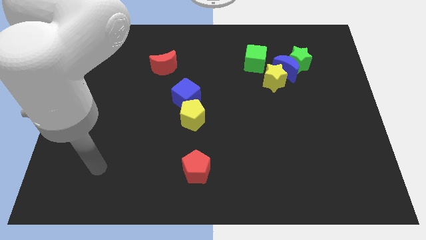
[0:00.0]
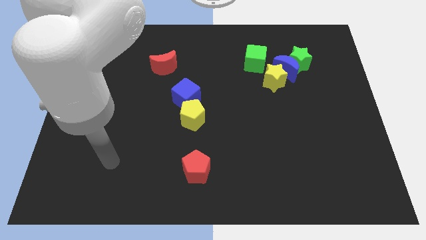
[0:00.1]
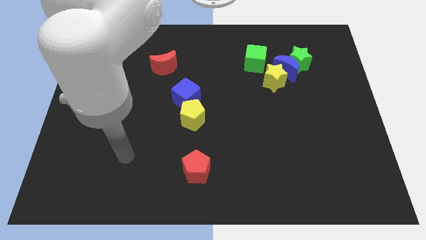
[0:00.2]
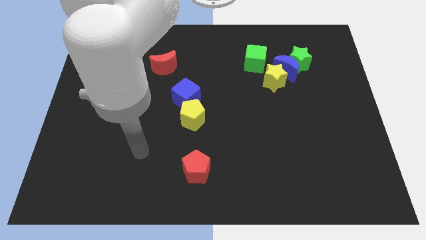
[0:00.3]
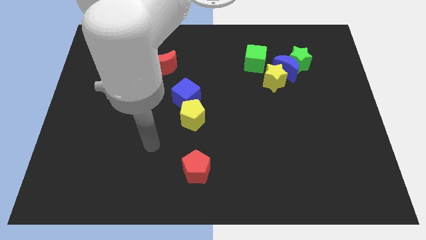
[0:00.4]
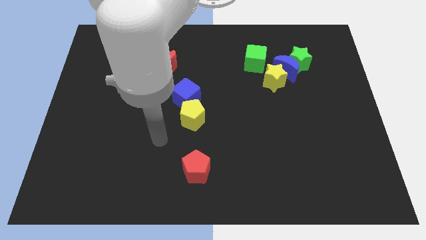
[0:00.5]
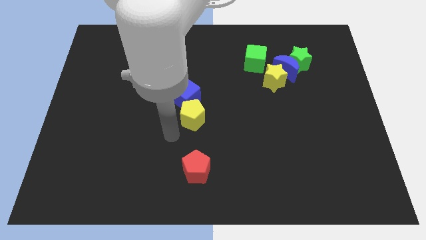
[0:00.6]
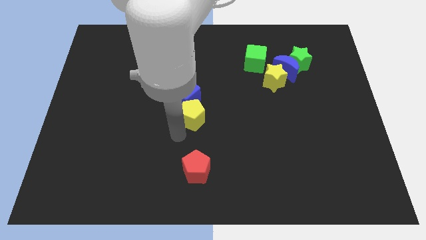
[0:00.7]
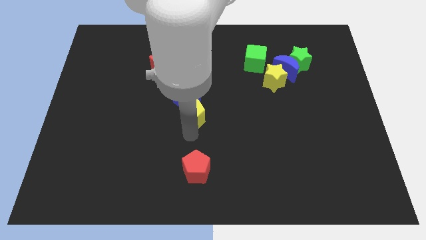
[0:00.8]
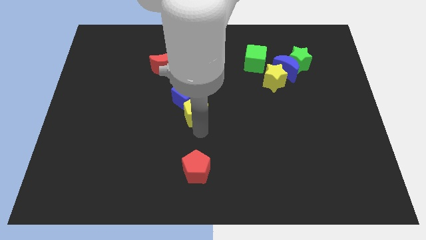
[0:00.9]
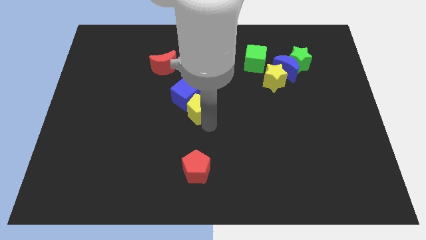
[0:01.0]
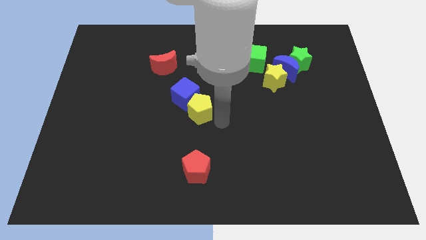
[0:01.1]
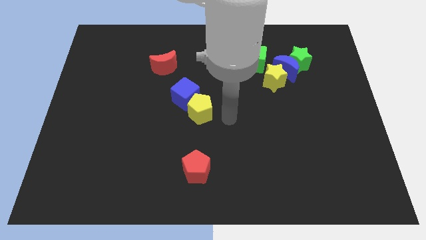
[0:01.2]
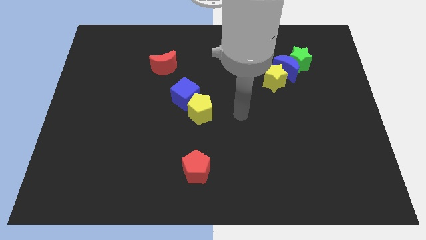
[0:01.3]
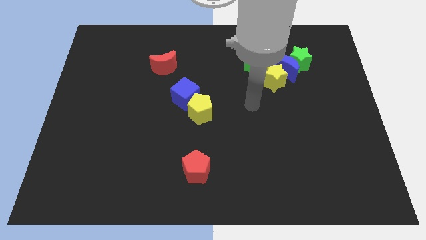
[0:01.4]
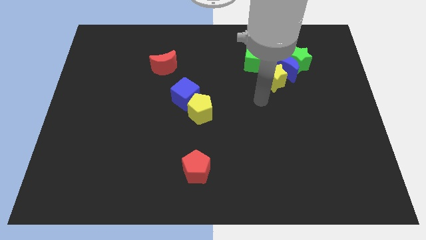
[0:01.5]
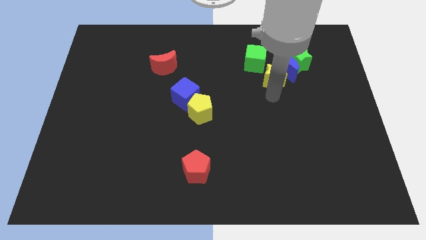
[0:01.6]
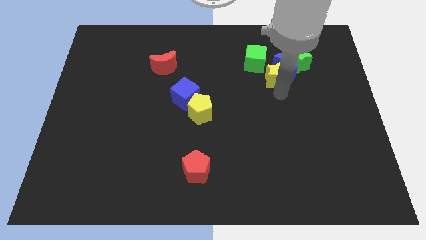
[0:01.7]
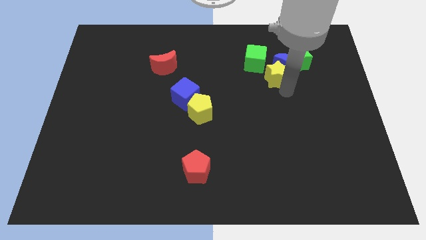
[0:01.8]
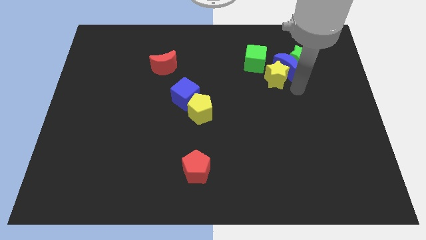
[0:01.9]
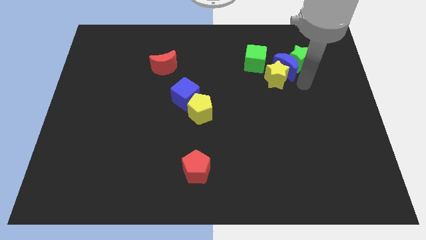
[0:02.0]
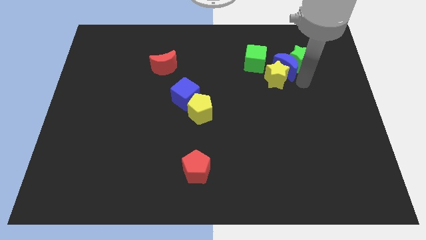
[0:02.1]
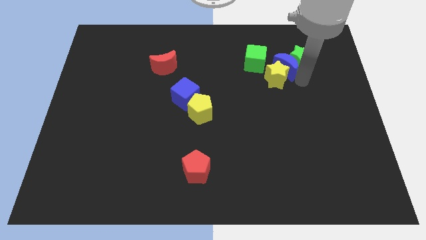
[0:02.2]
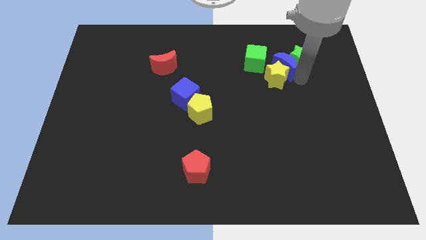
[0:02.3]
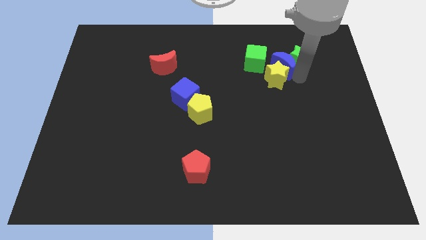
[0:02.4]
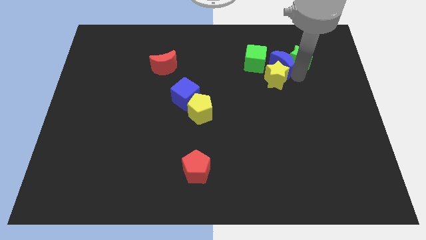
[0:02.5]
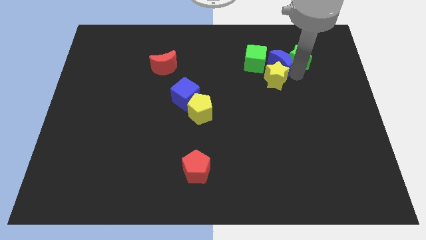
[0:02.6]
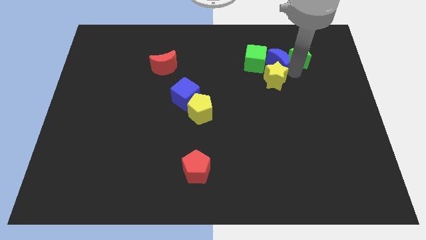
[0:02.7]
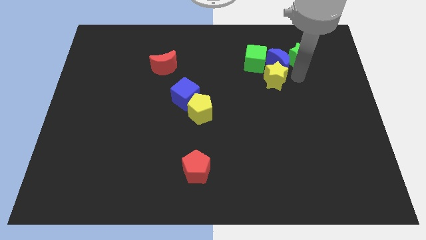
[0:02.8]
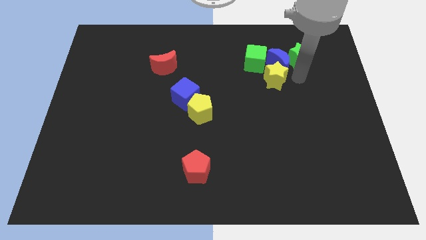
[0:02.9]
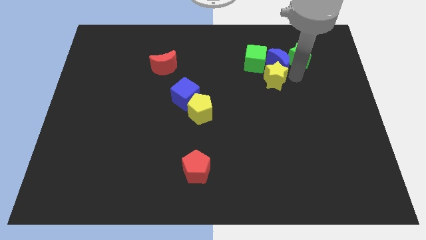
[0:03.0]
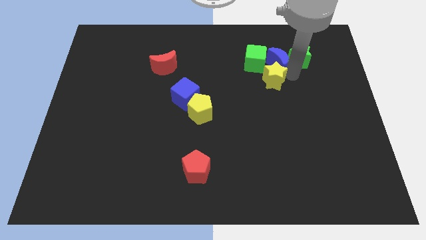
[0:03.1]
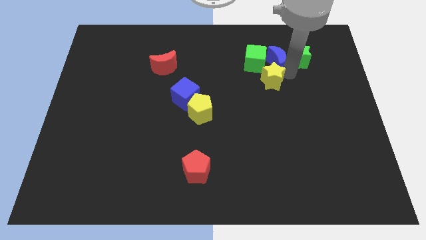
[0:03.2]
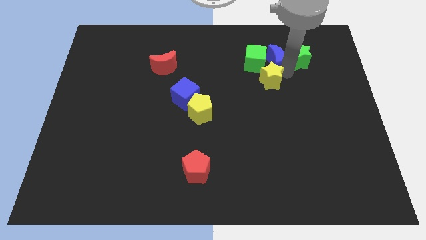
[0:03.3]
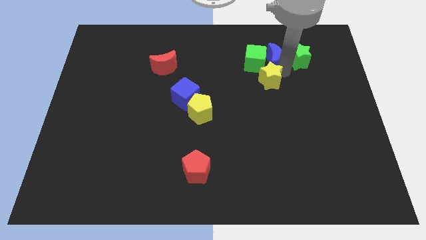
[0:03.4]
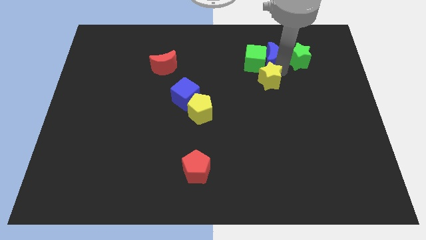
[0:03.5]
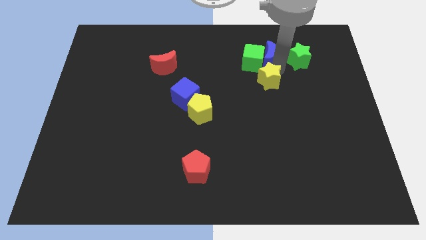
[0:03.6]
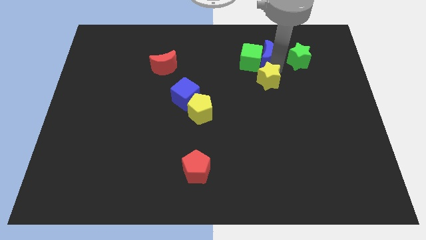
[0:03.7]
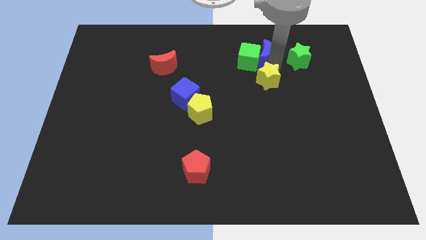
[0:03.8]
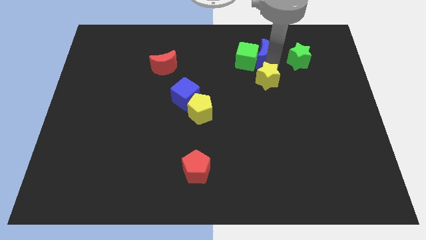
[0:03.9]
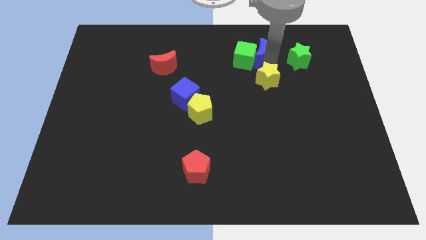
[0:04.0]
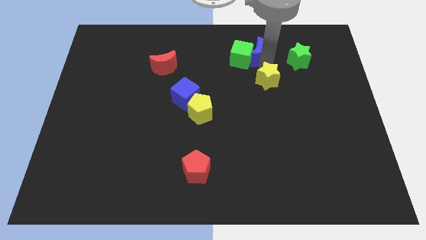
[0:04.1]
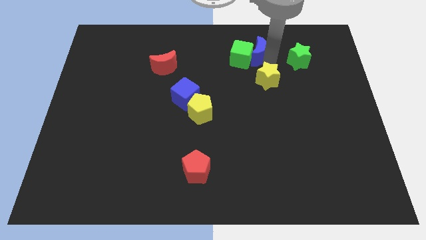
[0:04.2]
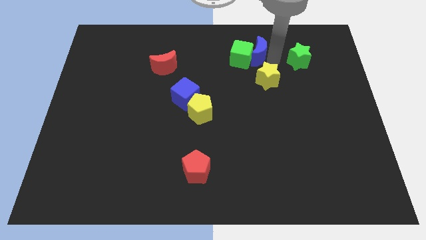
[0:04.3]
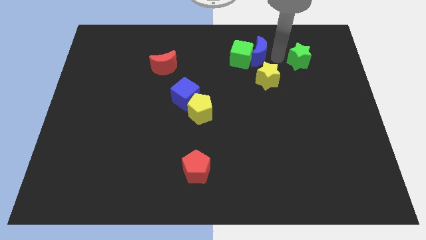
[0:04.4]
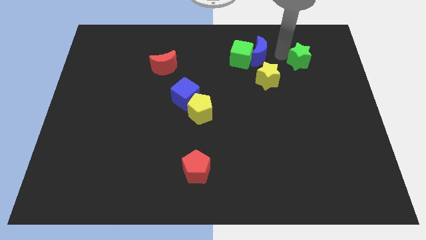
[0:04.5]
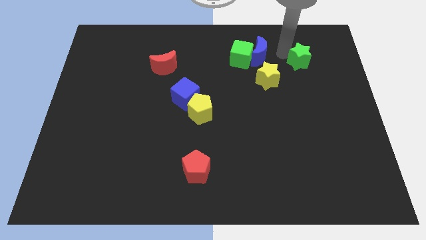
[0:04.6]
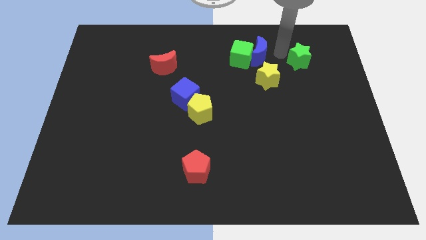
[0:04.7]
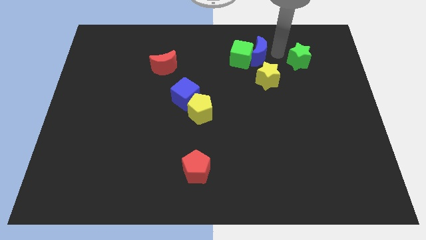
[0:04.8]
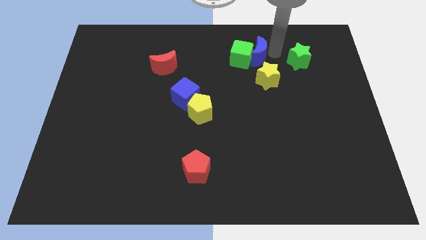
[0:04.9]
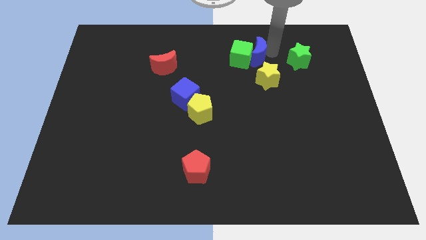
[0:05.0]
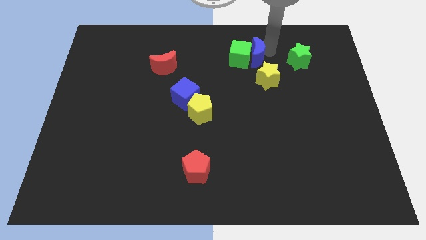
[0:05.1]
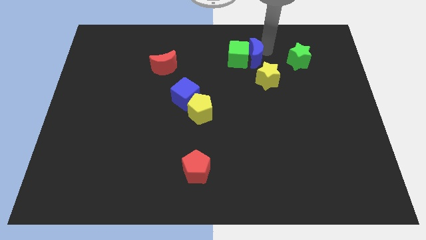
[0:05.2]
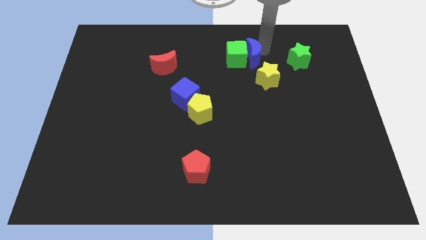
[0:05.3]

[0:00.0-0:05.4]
slightly move the blue moon to the left

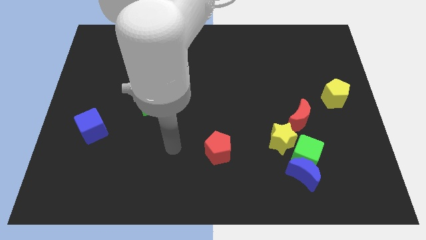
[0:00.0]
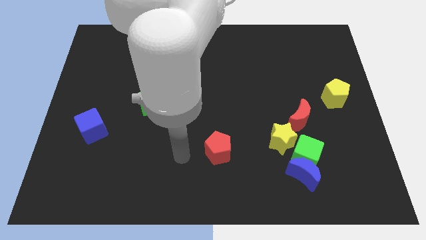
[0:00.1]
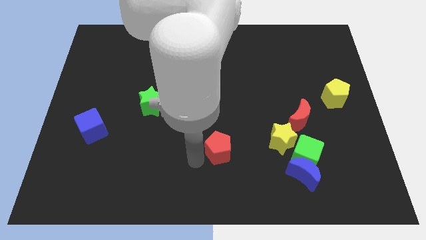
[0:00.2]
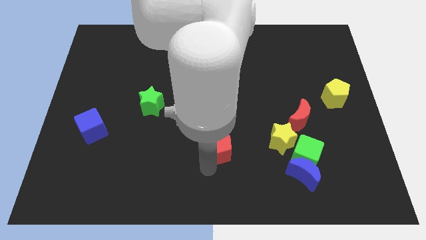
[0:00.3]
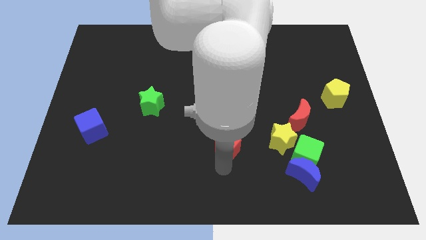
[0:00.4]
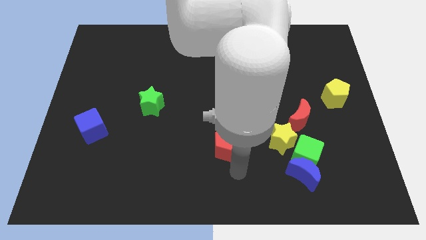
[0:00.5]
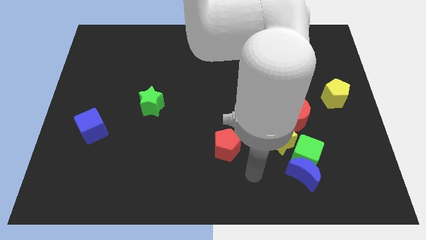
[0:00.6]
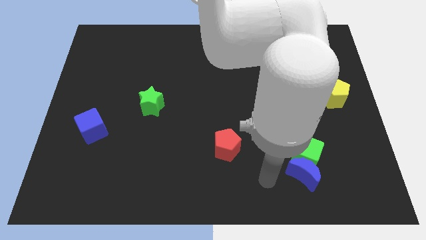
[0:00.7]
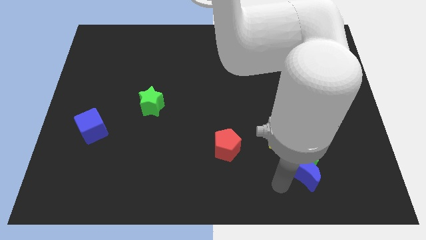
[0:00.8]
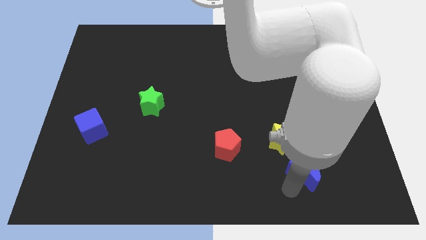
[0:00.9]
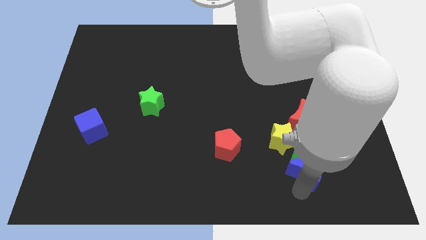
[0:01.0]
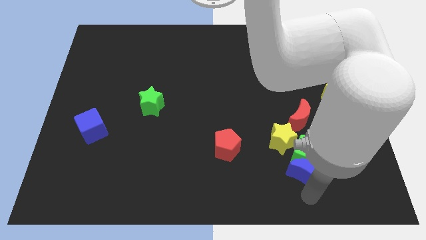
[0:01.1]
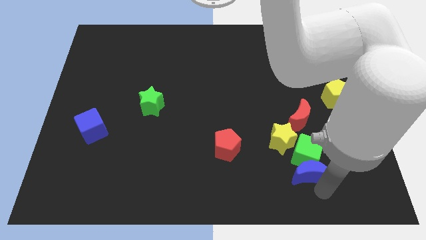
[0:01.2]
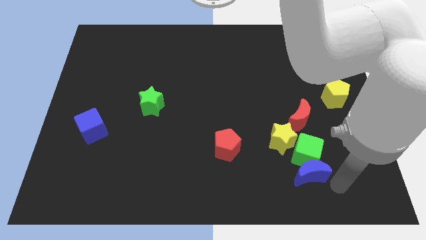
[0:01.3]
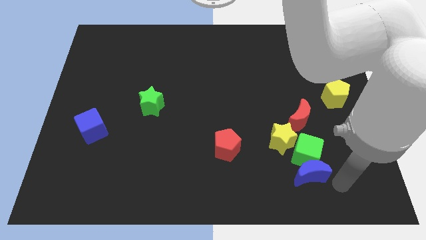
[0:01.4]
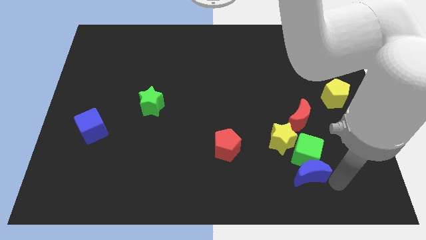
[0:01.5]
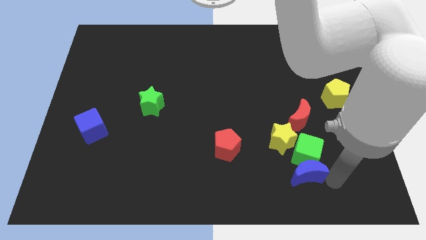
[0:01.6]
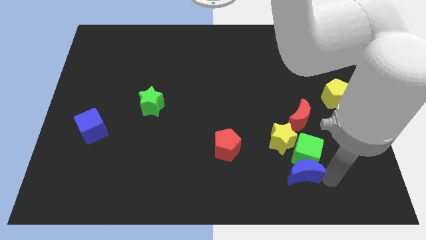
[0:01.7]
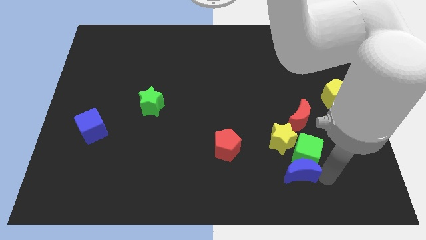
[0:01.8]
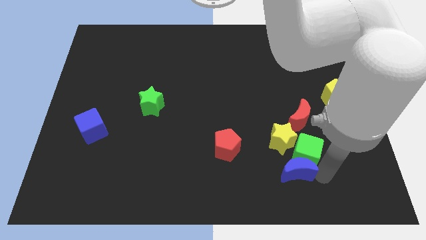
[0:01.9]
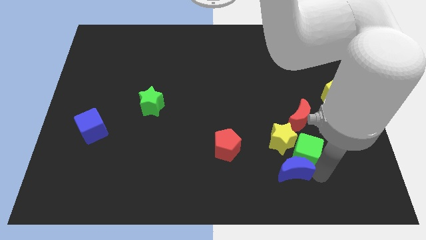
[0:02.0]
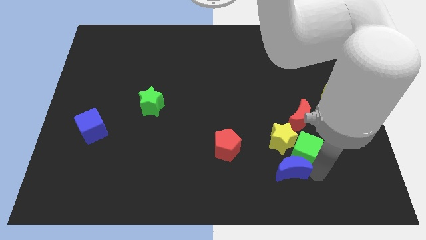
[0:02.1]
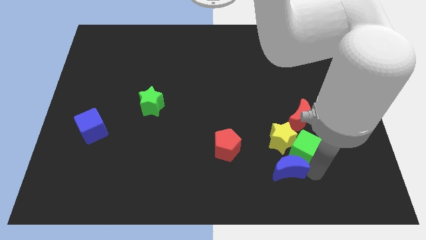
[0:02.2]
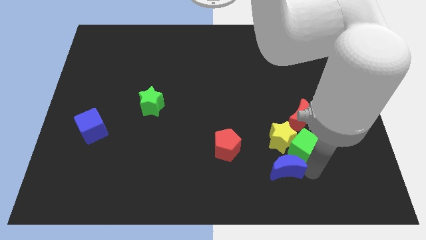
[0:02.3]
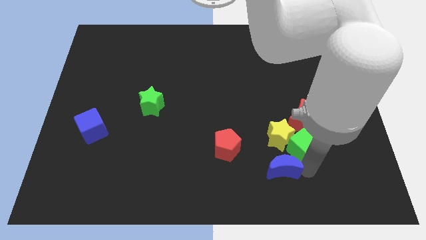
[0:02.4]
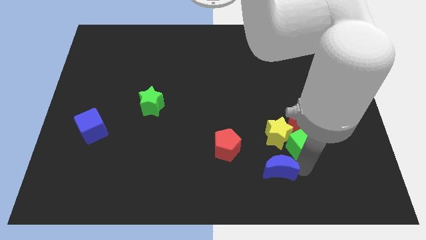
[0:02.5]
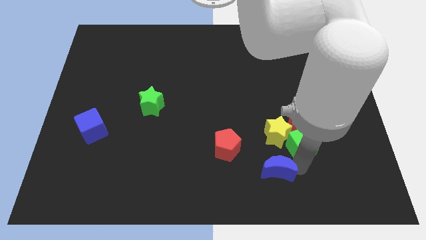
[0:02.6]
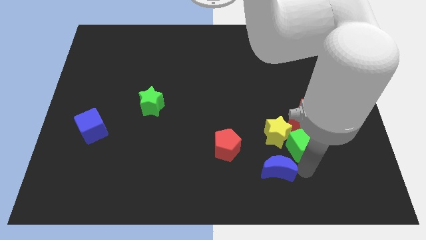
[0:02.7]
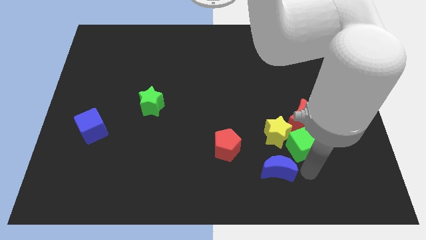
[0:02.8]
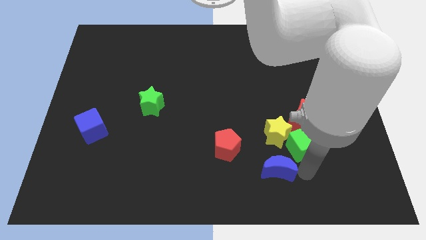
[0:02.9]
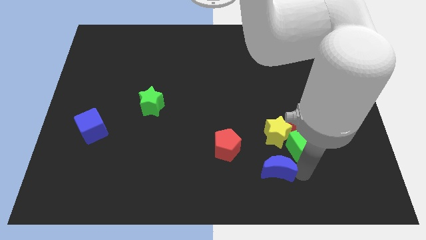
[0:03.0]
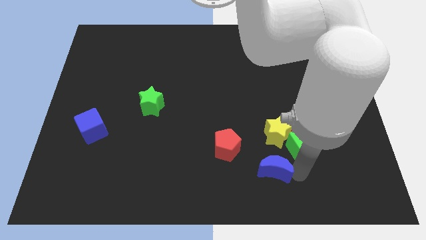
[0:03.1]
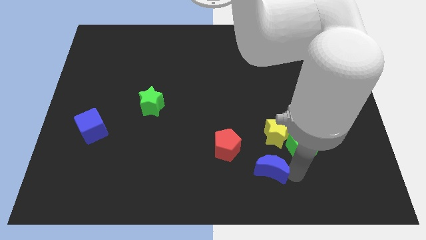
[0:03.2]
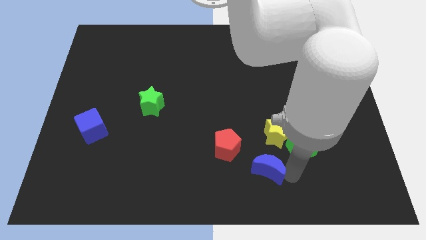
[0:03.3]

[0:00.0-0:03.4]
move the blue moon to the left a bit
